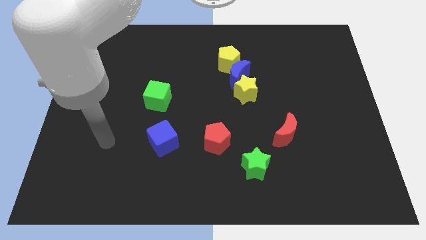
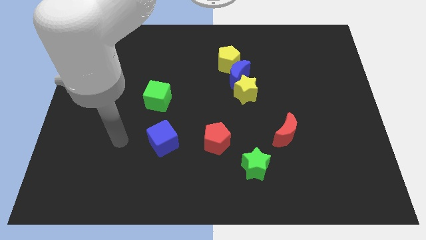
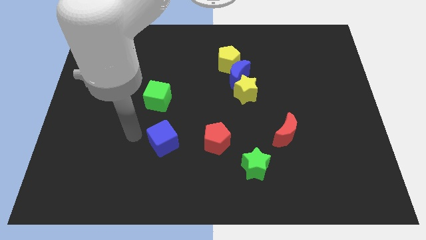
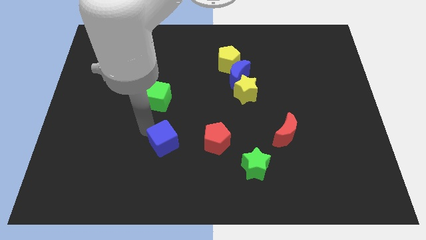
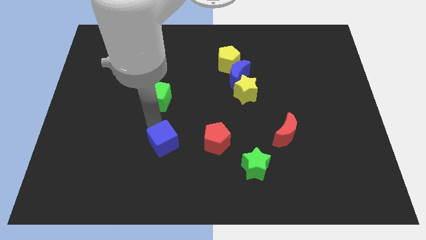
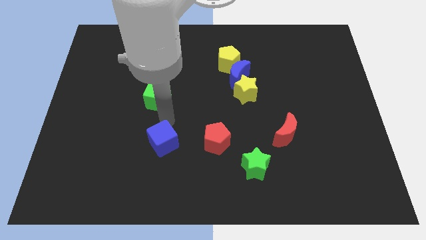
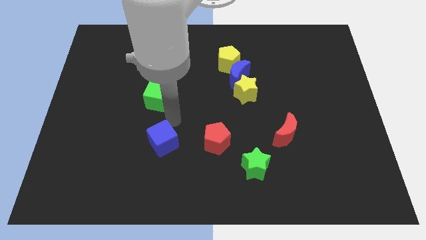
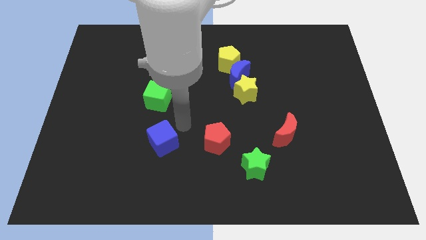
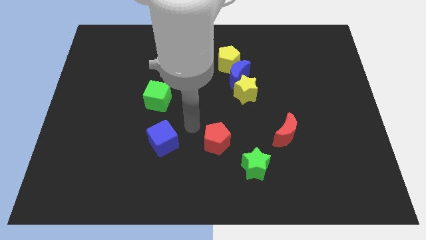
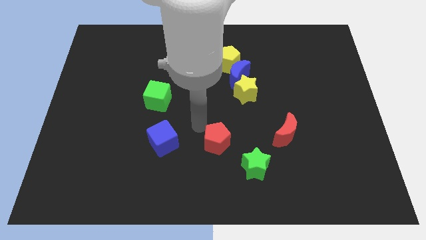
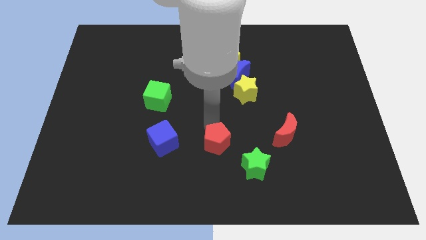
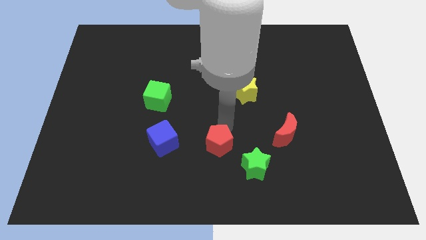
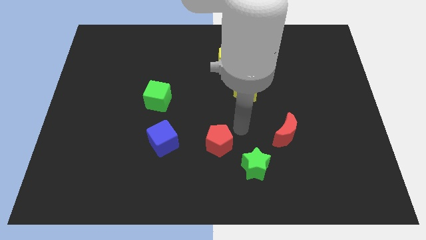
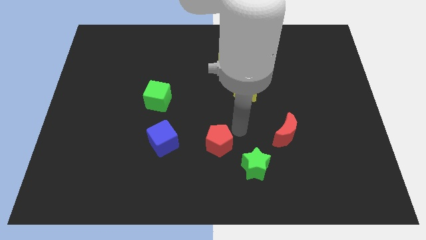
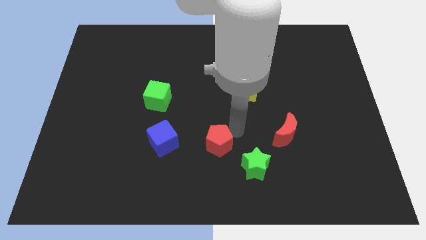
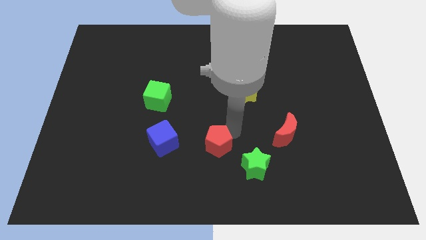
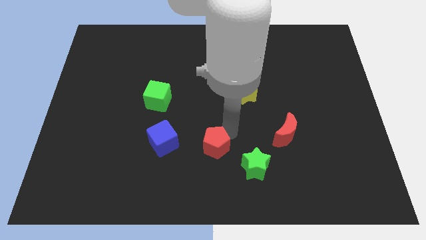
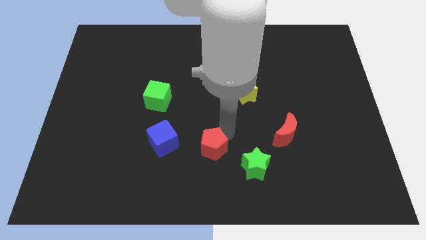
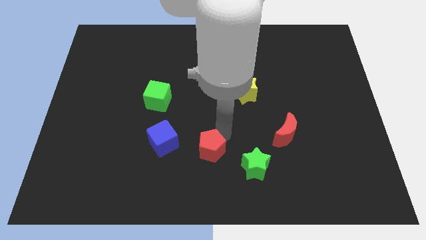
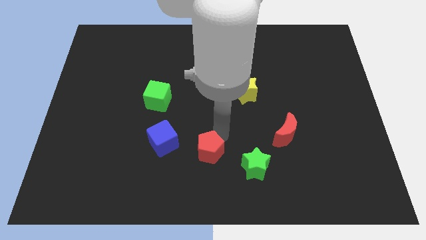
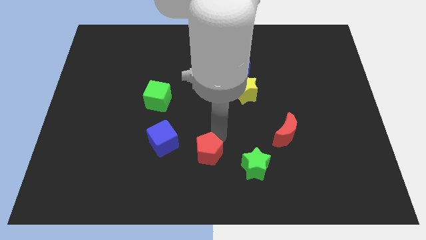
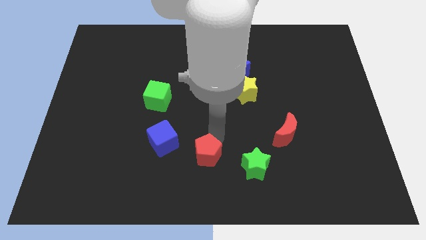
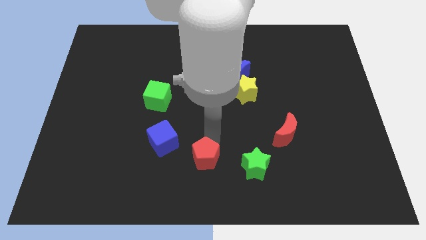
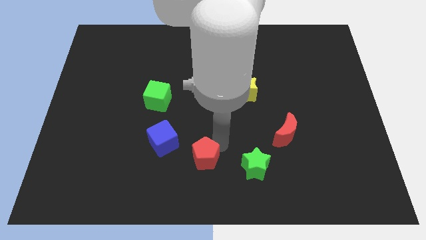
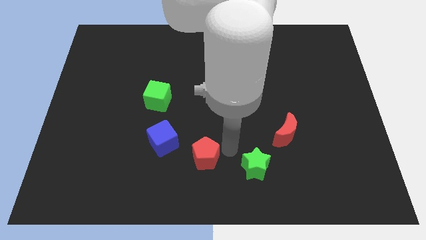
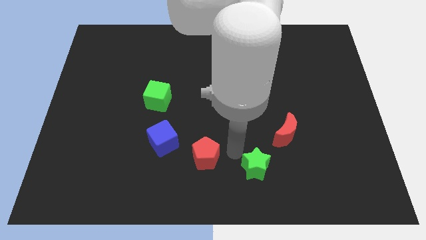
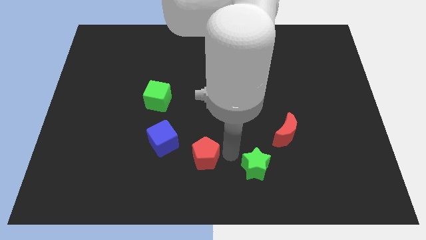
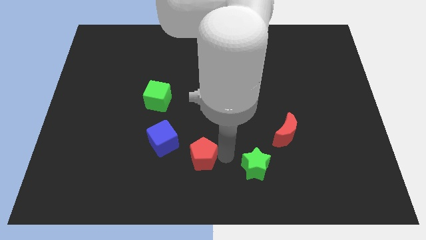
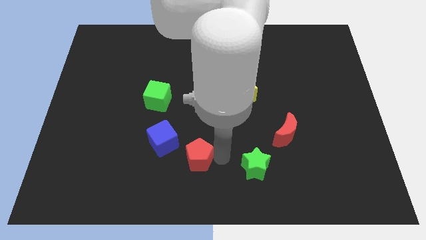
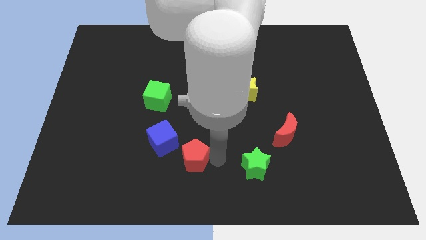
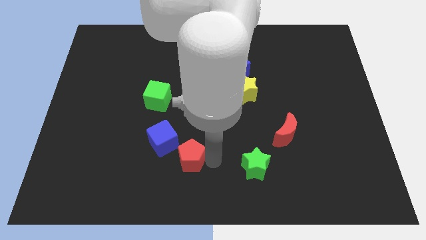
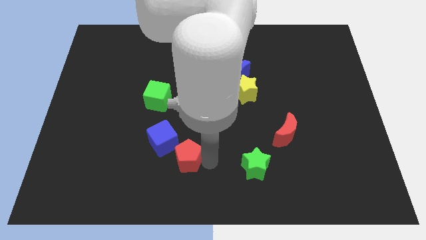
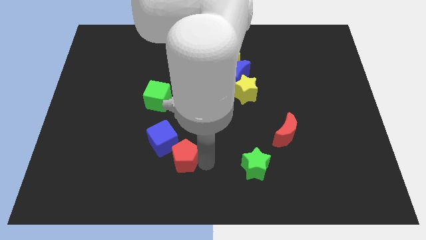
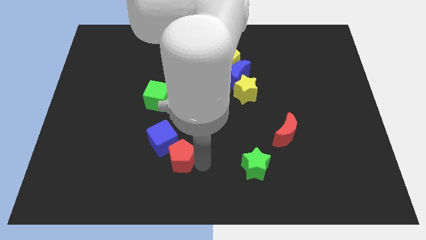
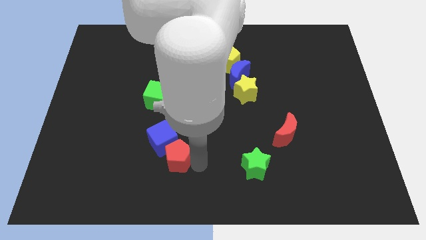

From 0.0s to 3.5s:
move the red pentagon somewhat left

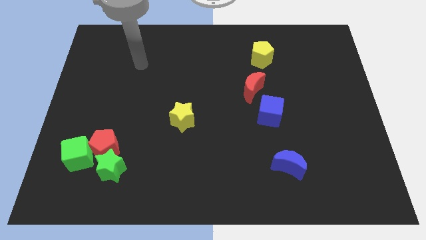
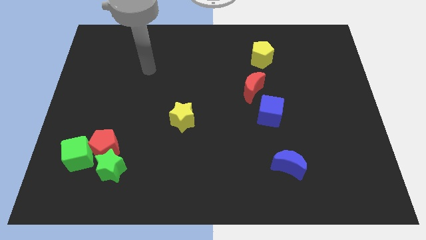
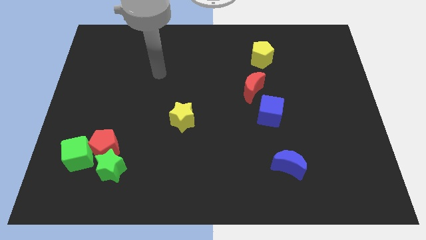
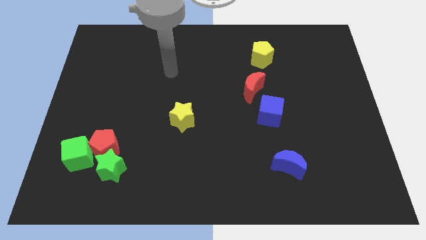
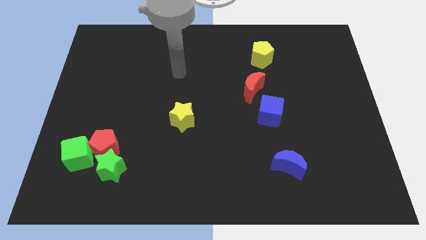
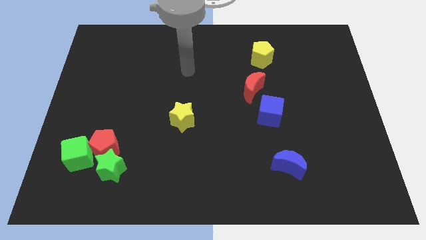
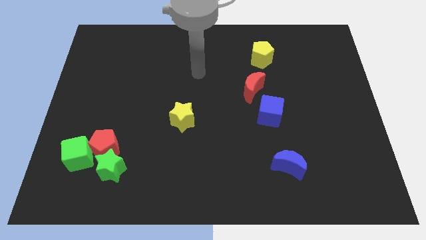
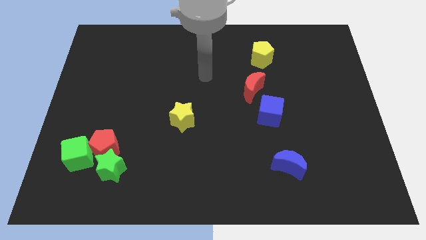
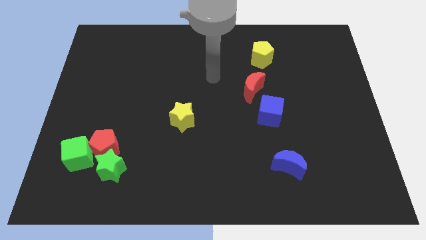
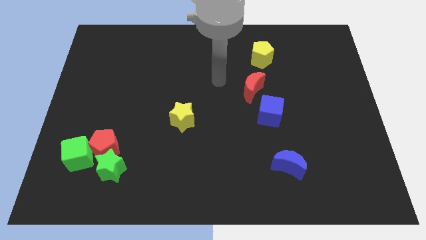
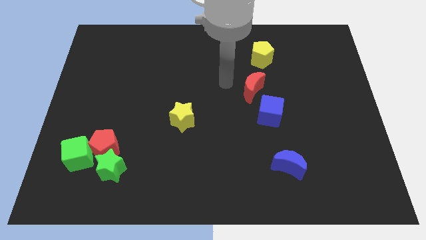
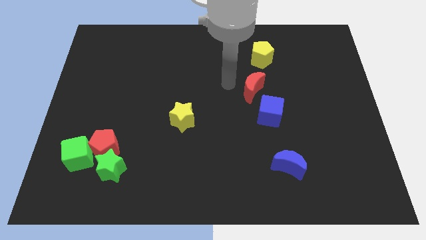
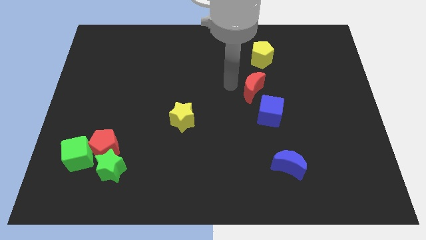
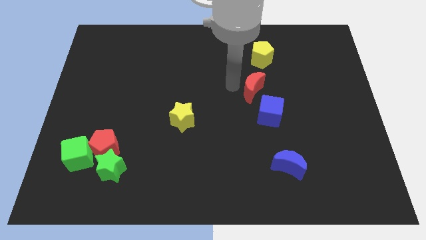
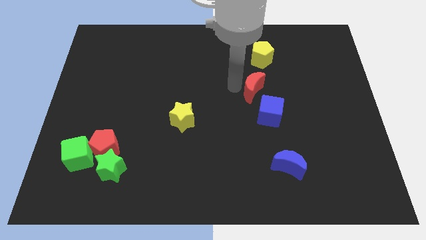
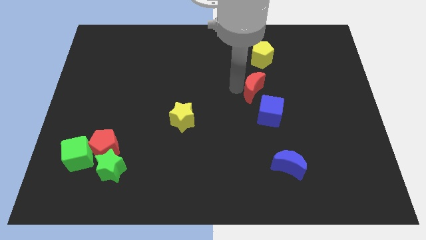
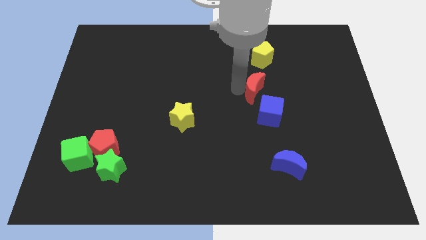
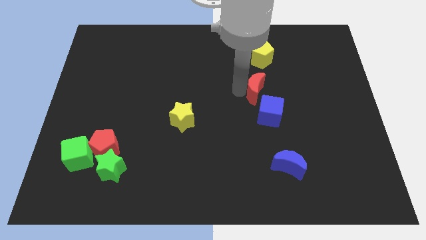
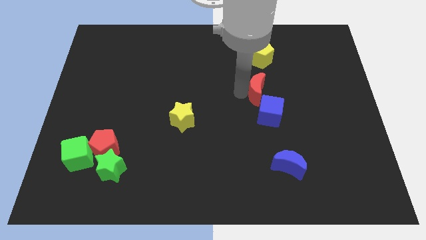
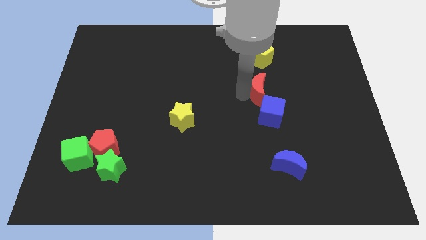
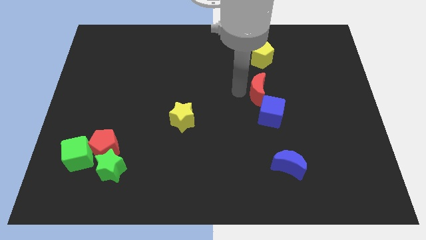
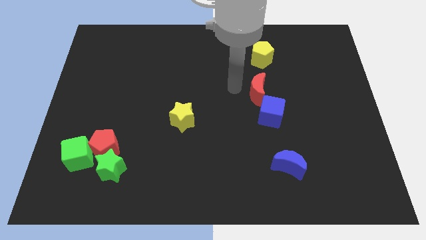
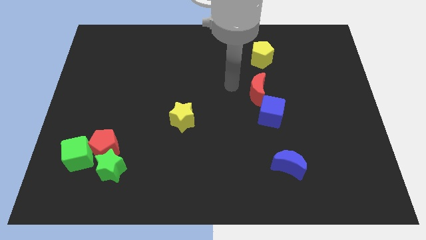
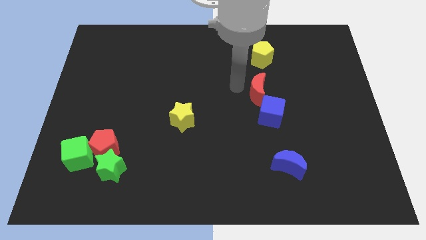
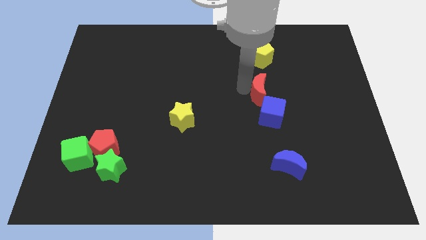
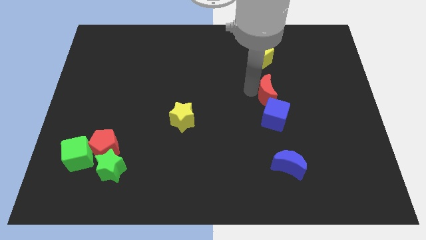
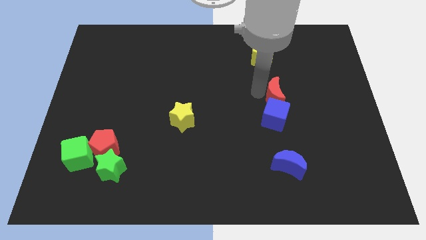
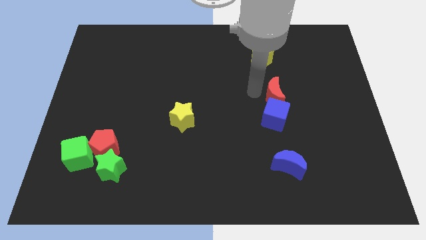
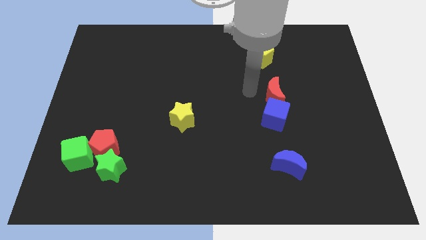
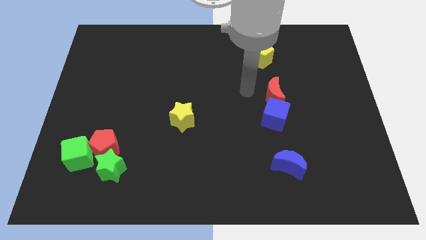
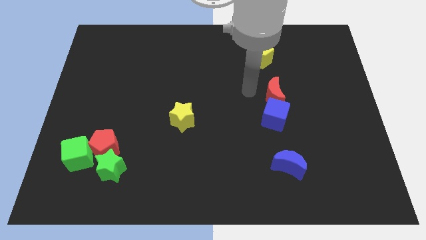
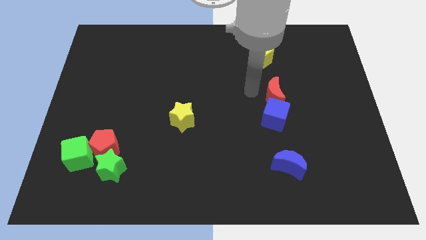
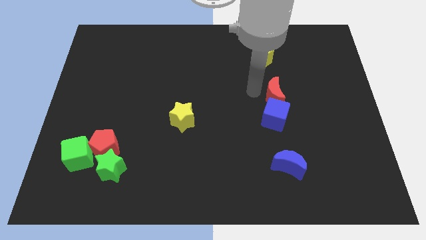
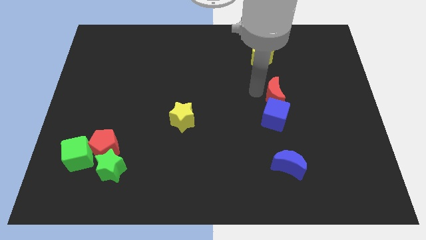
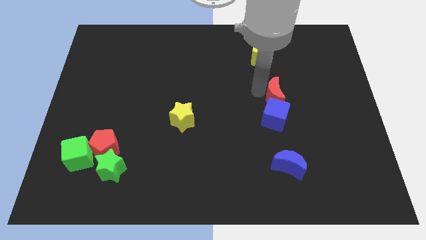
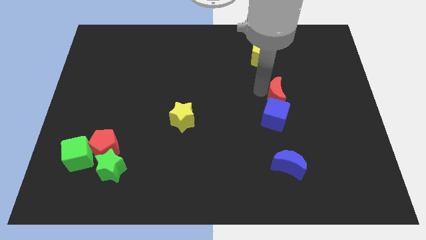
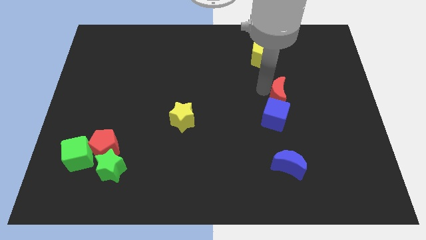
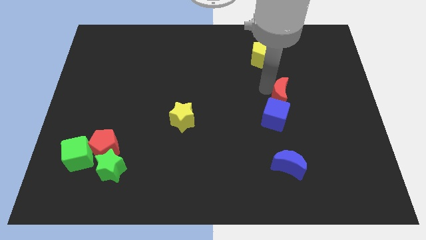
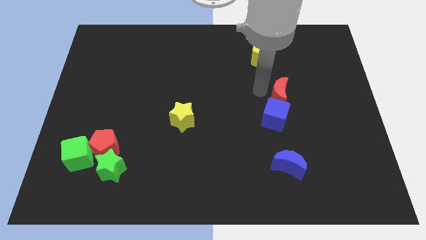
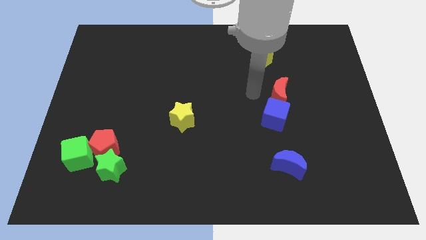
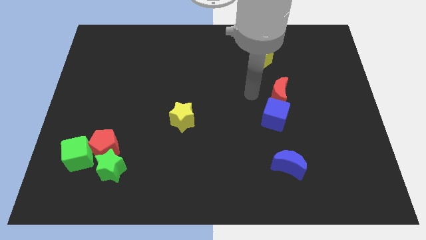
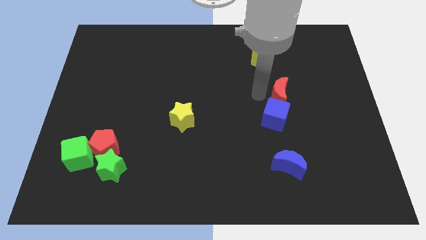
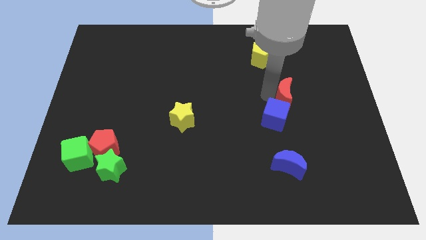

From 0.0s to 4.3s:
push the red moon right a little bit
